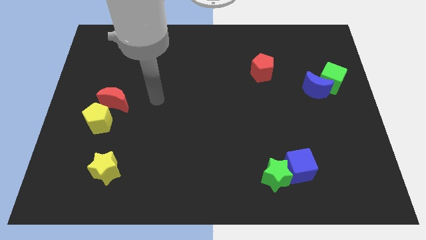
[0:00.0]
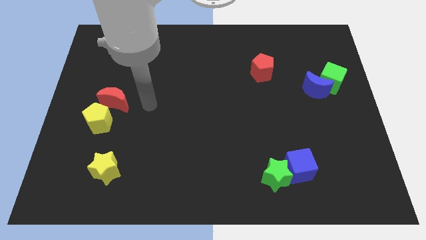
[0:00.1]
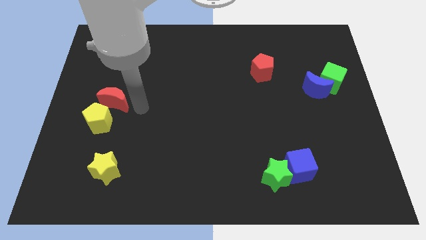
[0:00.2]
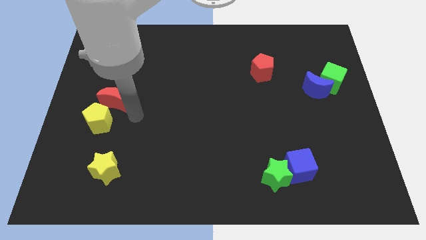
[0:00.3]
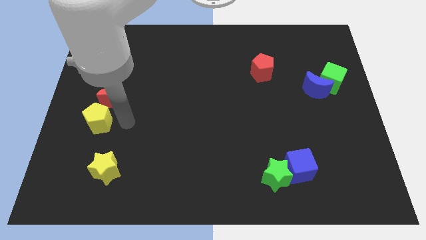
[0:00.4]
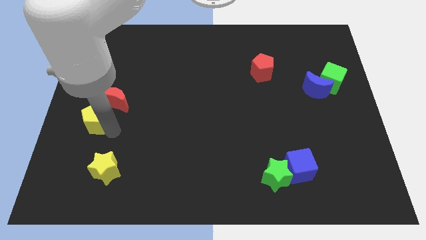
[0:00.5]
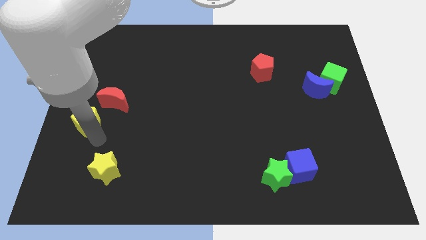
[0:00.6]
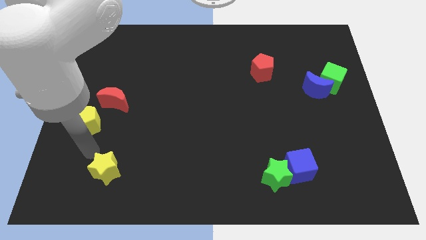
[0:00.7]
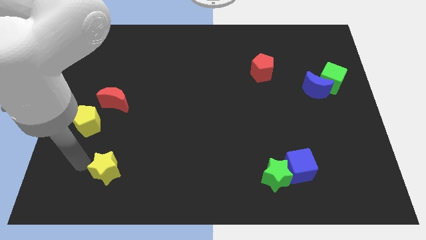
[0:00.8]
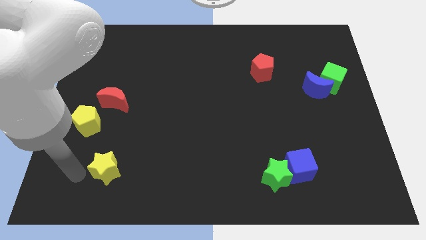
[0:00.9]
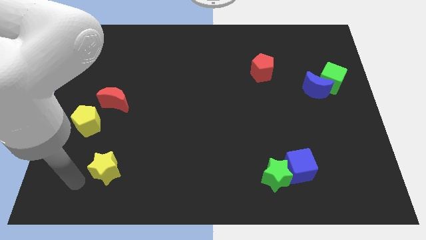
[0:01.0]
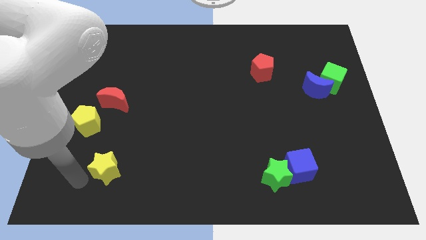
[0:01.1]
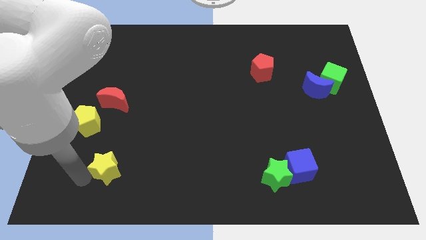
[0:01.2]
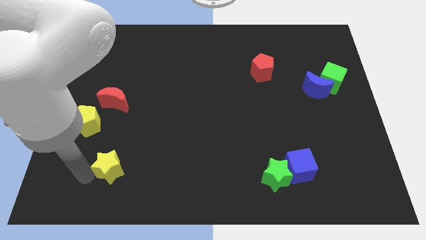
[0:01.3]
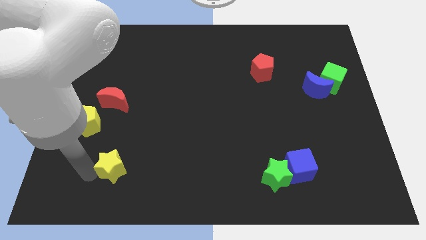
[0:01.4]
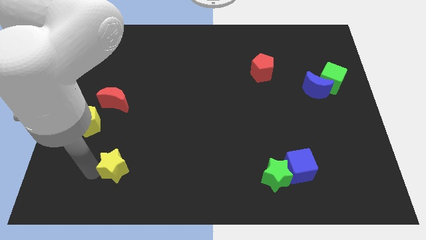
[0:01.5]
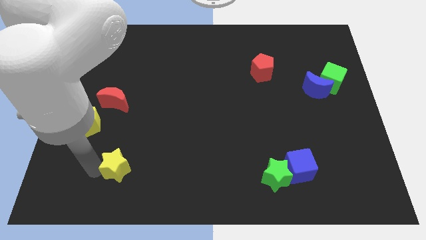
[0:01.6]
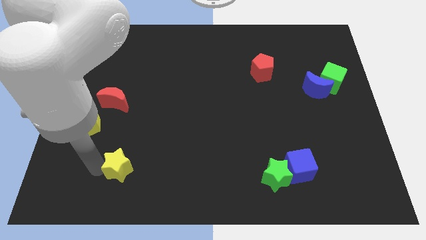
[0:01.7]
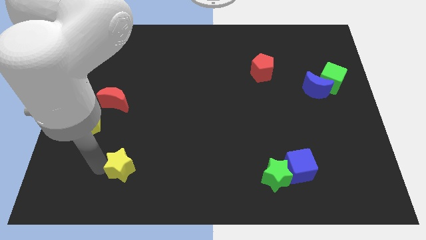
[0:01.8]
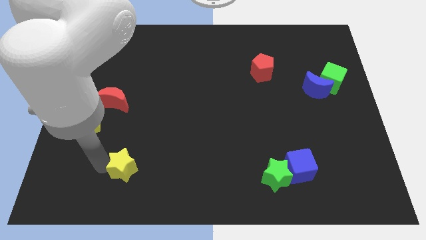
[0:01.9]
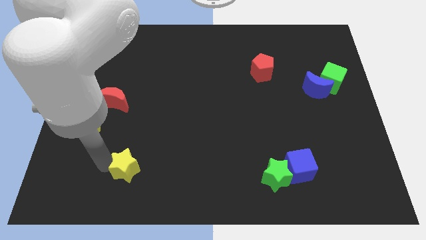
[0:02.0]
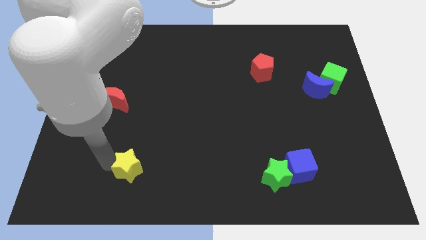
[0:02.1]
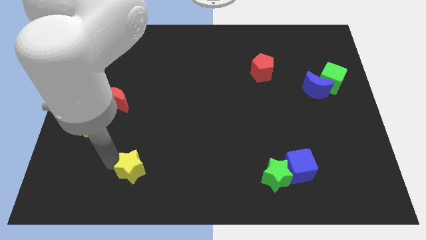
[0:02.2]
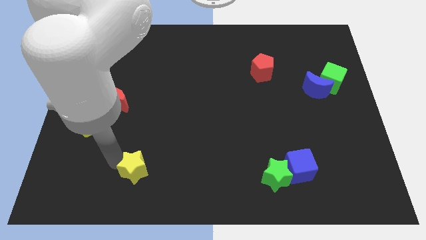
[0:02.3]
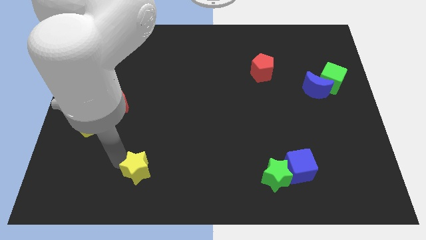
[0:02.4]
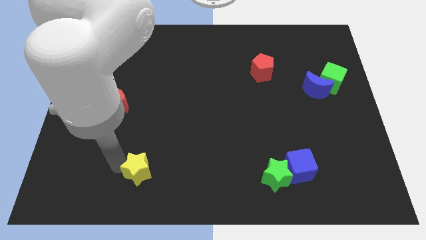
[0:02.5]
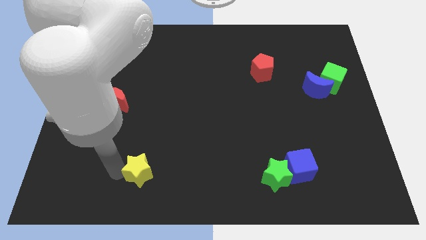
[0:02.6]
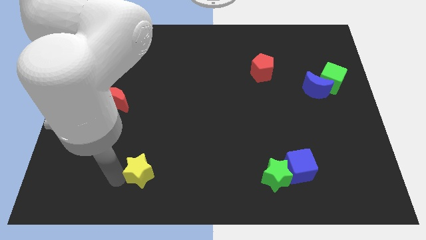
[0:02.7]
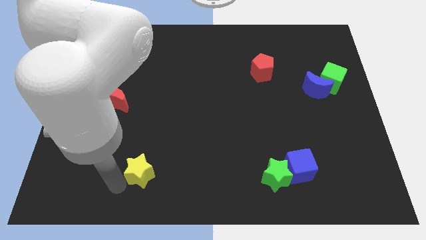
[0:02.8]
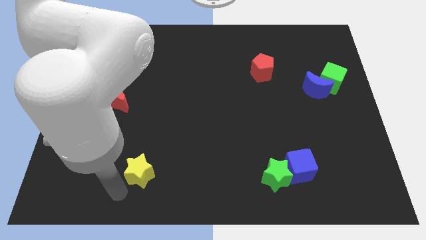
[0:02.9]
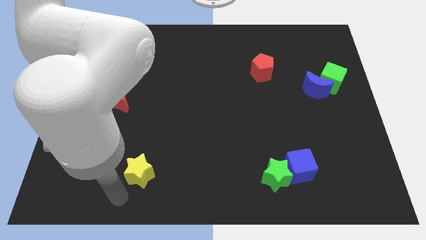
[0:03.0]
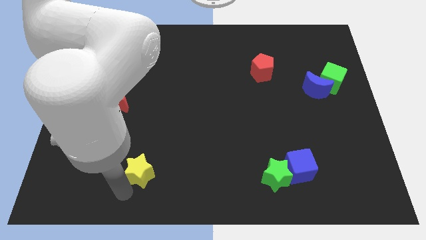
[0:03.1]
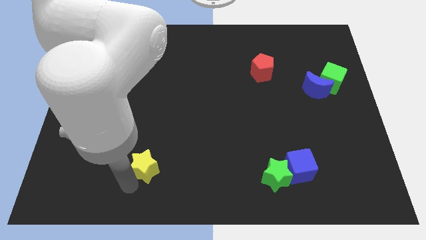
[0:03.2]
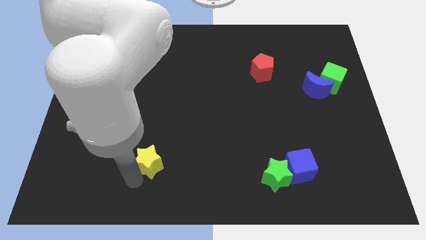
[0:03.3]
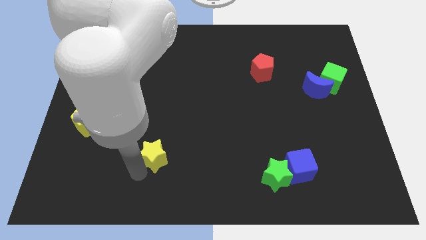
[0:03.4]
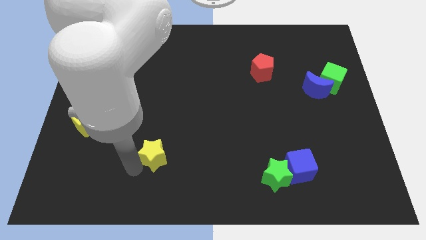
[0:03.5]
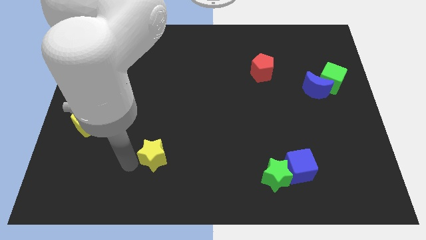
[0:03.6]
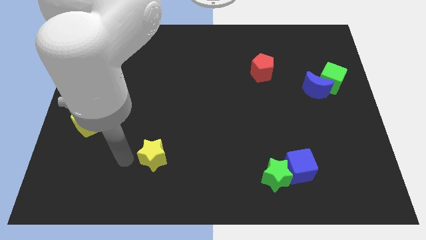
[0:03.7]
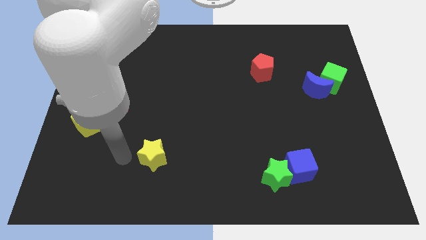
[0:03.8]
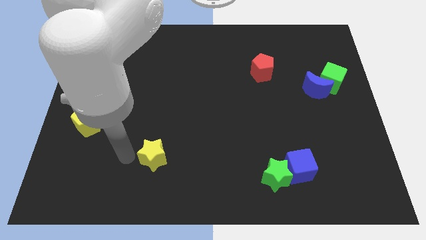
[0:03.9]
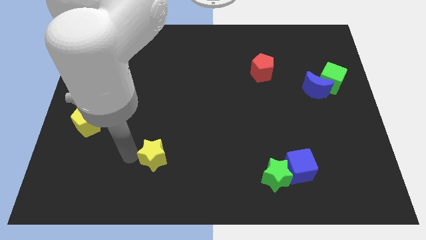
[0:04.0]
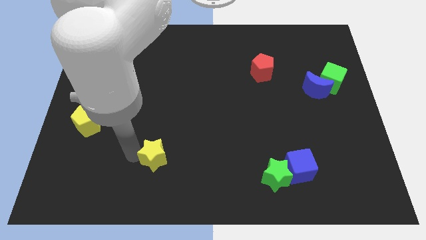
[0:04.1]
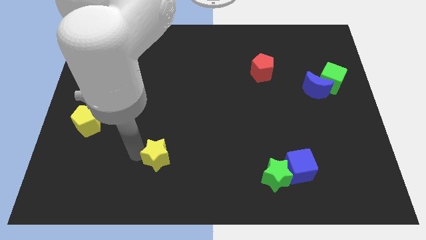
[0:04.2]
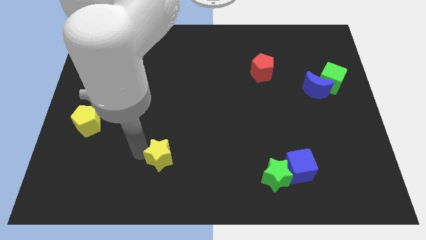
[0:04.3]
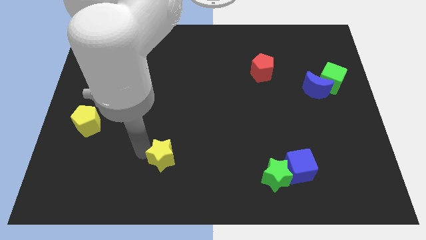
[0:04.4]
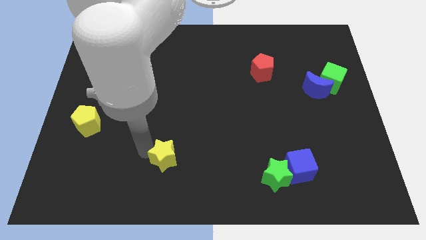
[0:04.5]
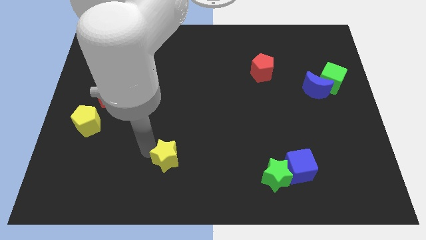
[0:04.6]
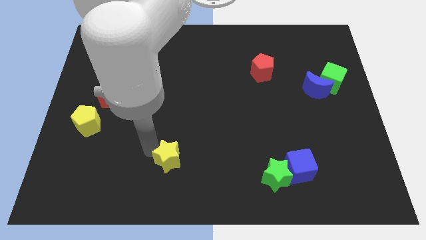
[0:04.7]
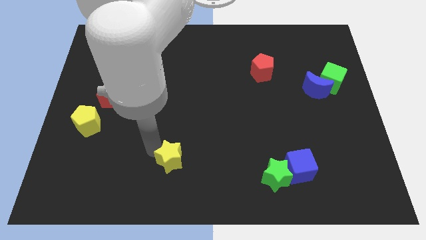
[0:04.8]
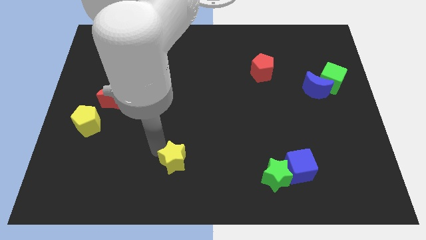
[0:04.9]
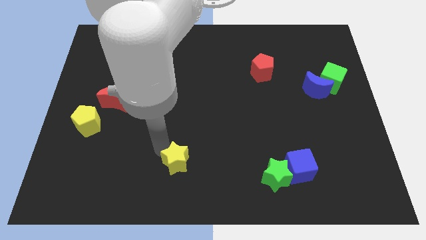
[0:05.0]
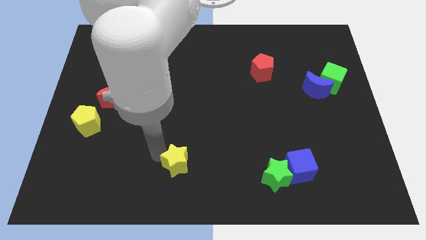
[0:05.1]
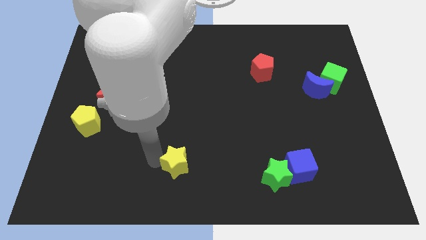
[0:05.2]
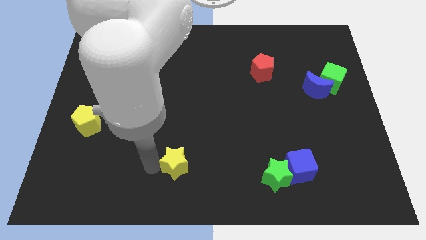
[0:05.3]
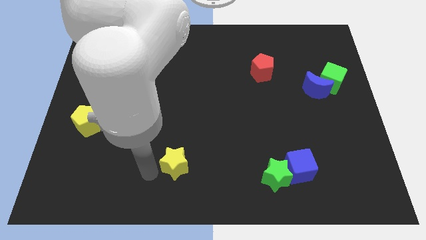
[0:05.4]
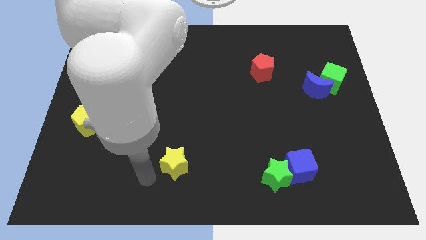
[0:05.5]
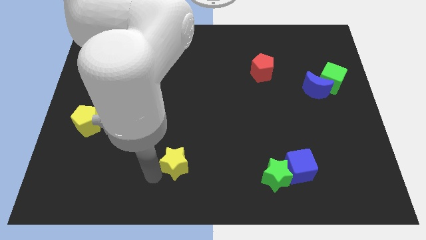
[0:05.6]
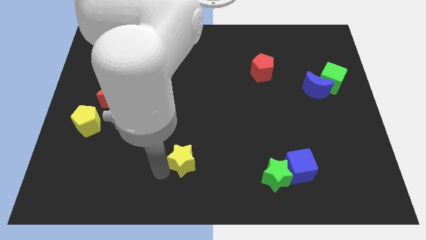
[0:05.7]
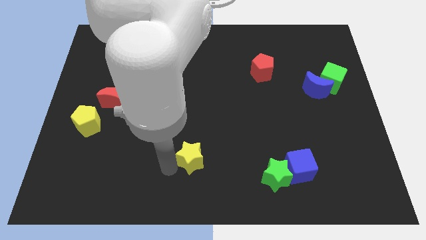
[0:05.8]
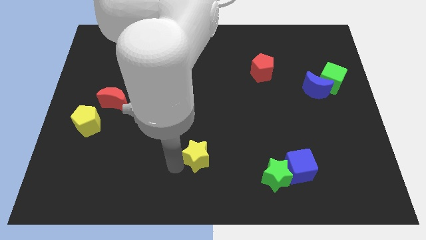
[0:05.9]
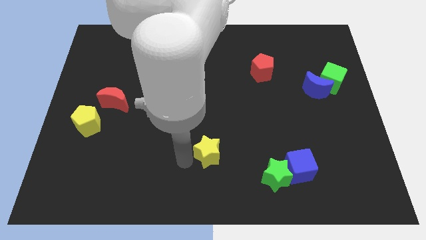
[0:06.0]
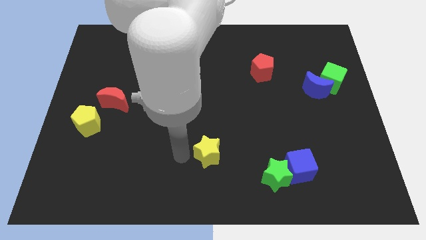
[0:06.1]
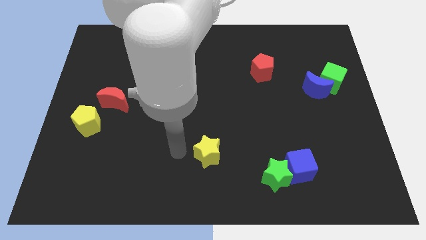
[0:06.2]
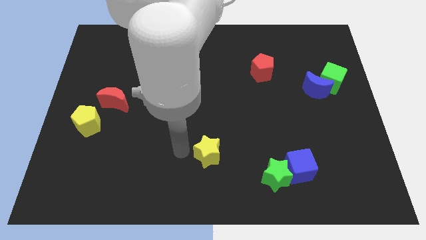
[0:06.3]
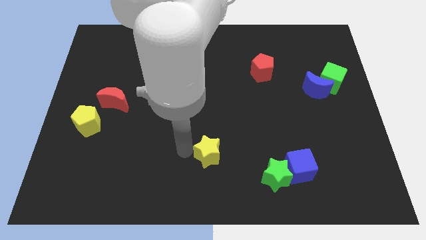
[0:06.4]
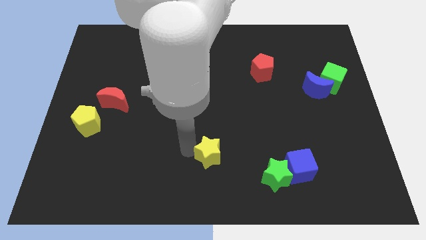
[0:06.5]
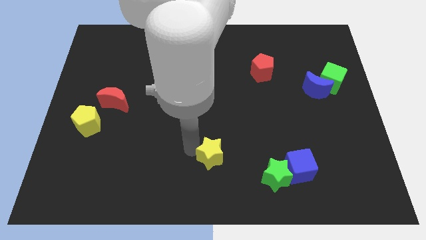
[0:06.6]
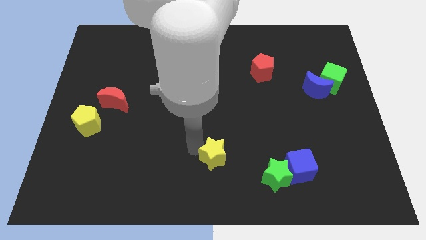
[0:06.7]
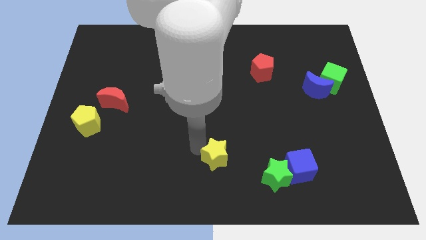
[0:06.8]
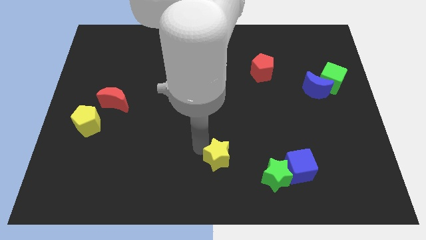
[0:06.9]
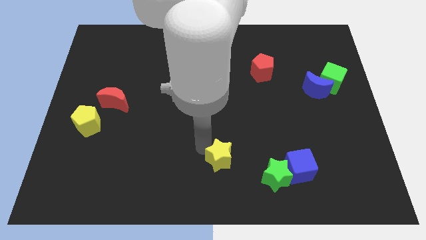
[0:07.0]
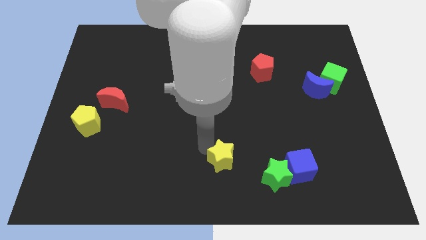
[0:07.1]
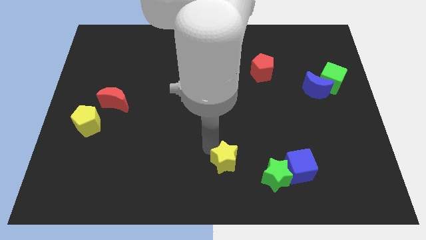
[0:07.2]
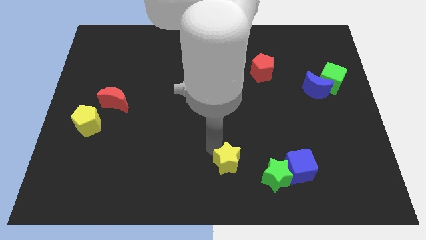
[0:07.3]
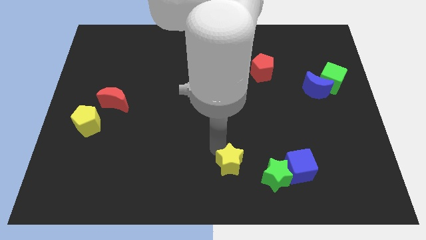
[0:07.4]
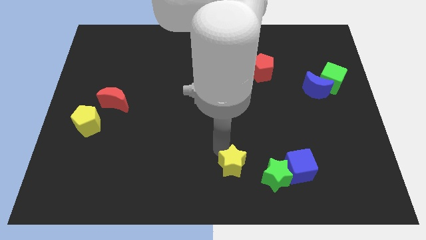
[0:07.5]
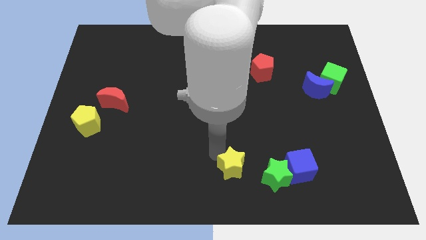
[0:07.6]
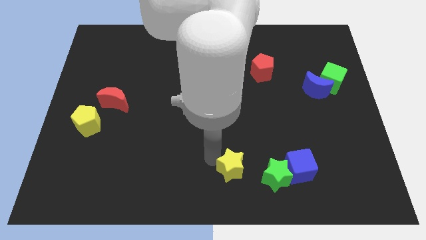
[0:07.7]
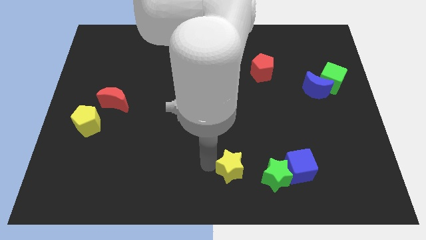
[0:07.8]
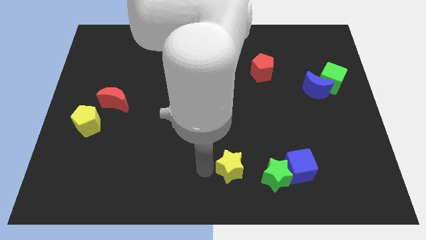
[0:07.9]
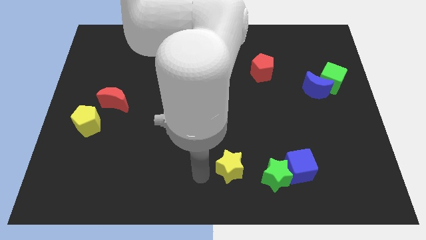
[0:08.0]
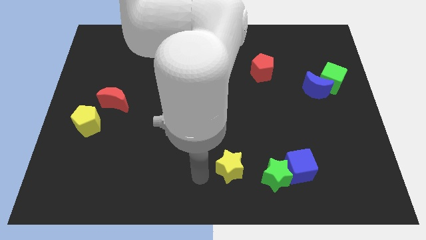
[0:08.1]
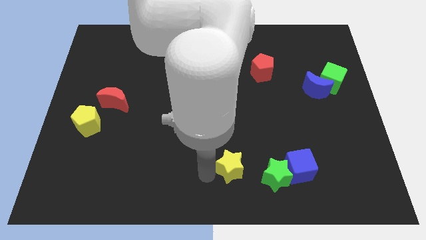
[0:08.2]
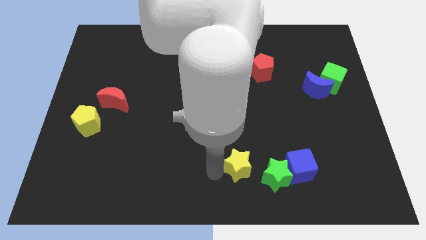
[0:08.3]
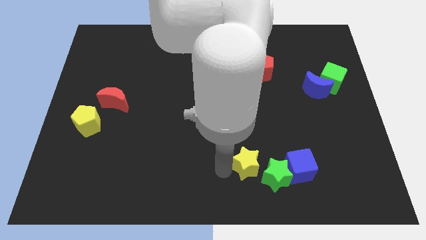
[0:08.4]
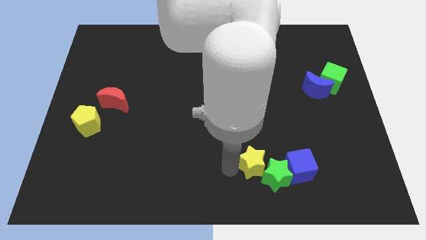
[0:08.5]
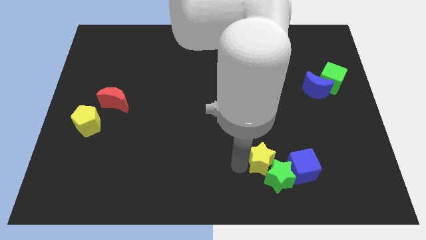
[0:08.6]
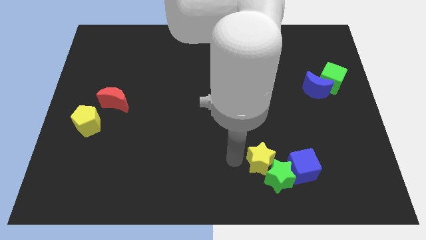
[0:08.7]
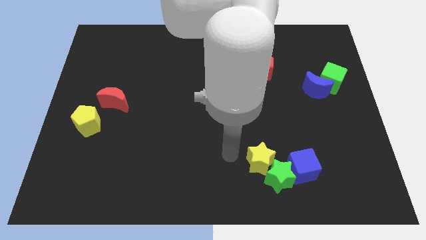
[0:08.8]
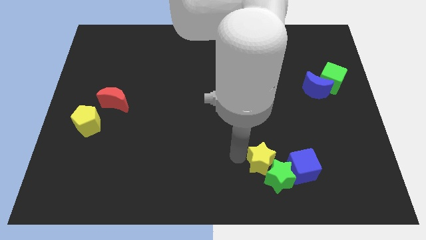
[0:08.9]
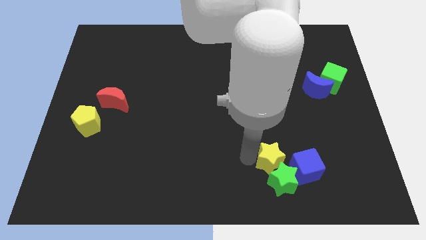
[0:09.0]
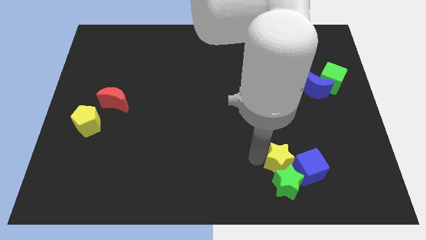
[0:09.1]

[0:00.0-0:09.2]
move the yellow star towards the blue cube
